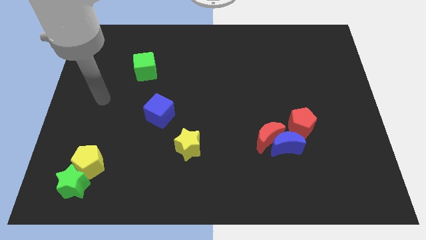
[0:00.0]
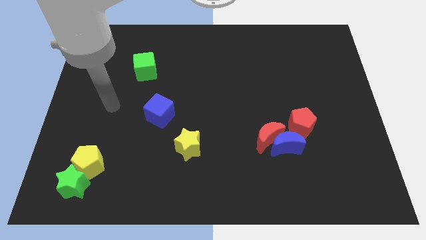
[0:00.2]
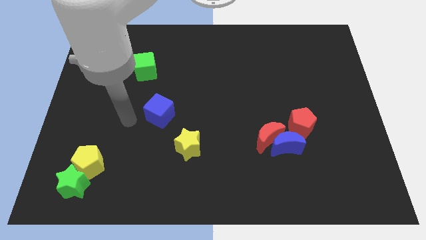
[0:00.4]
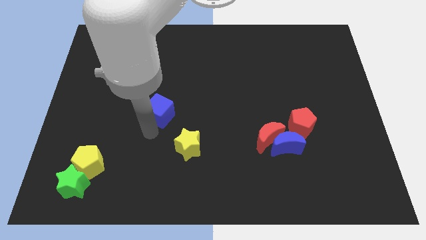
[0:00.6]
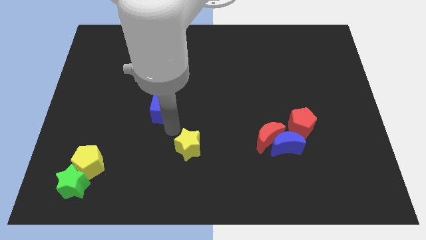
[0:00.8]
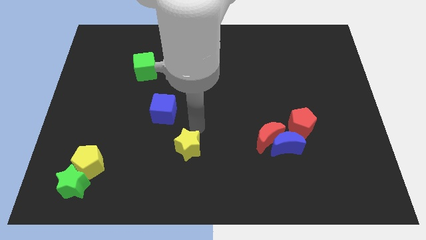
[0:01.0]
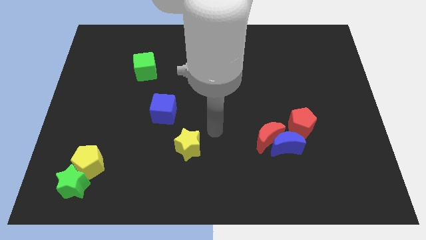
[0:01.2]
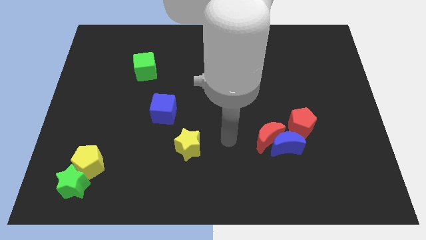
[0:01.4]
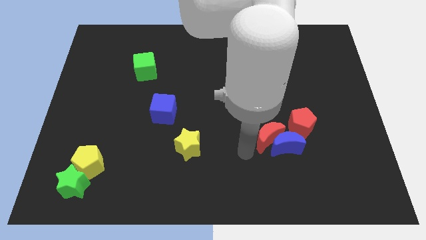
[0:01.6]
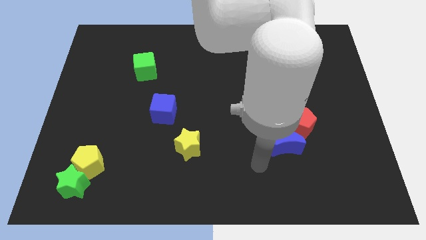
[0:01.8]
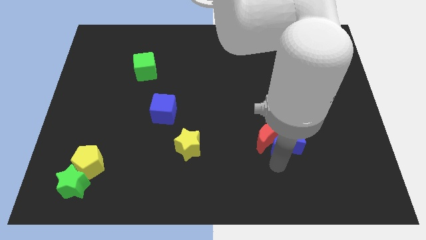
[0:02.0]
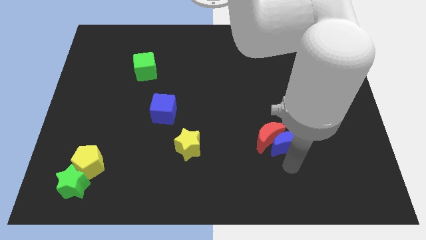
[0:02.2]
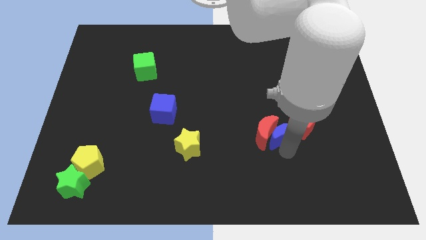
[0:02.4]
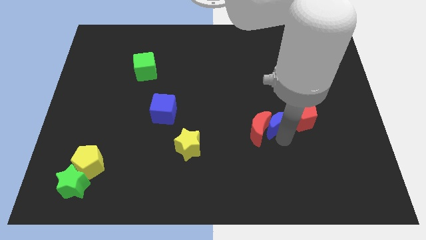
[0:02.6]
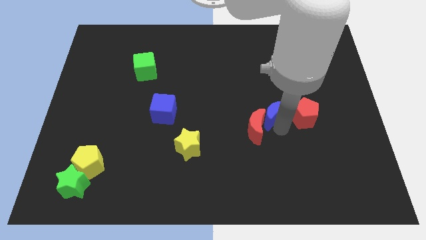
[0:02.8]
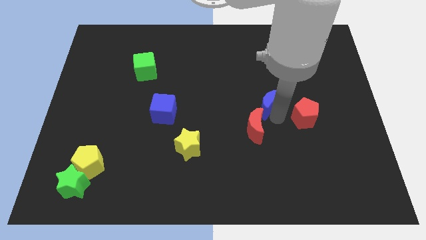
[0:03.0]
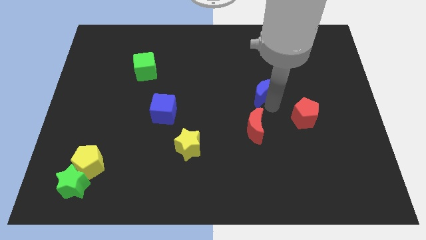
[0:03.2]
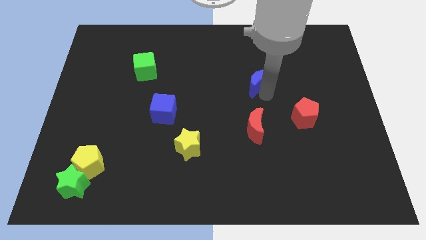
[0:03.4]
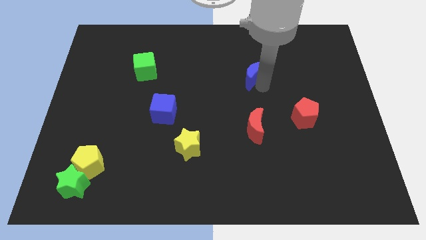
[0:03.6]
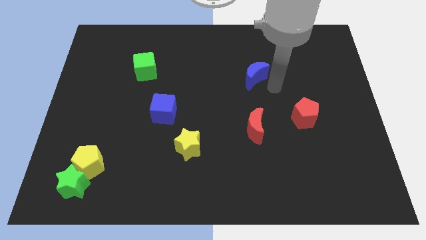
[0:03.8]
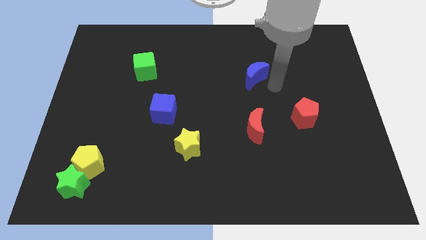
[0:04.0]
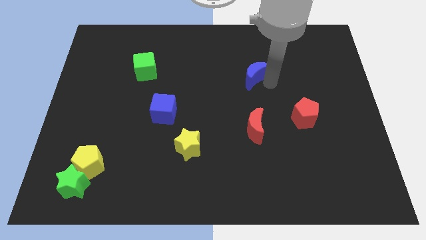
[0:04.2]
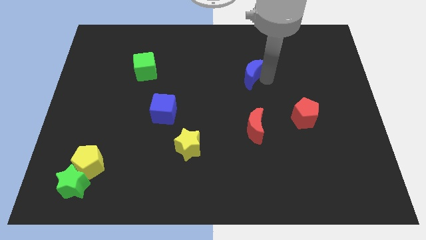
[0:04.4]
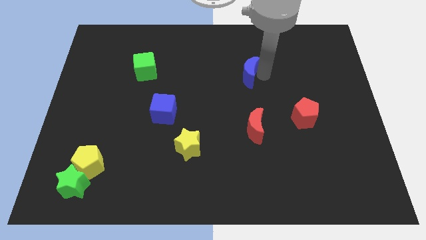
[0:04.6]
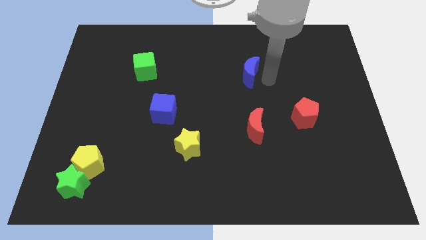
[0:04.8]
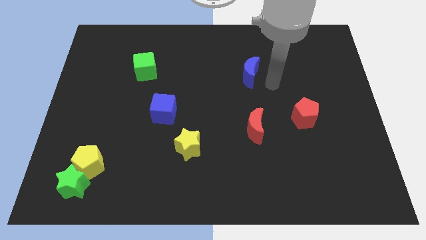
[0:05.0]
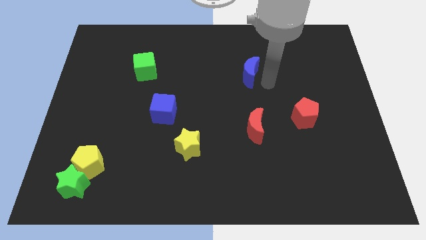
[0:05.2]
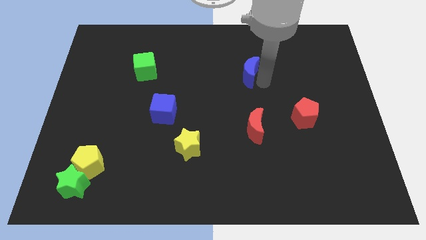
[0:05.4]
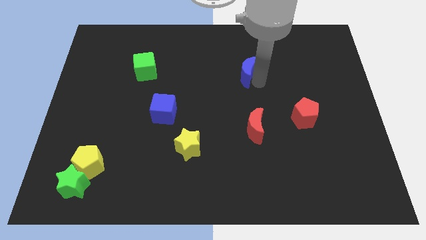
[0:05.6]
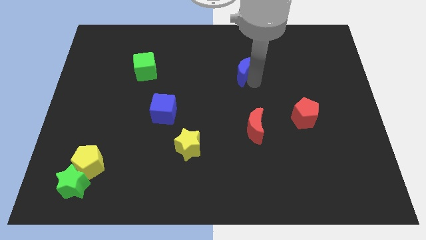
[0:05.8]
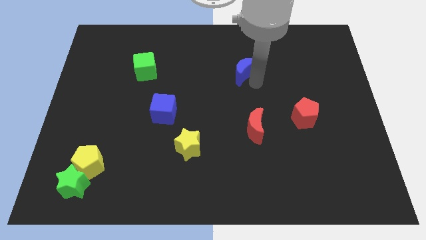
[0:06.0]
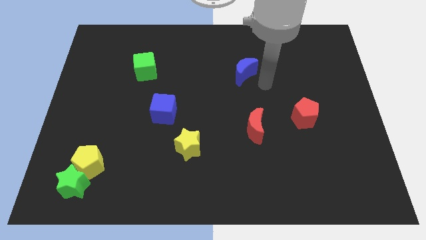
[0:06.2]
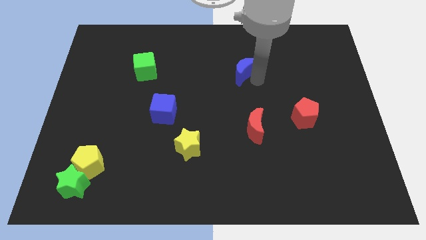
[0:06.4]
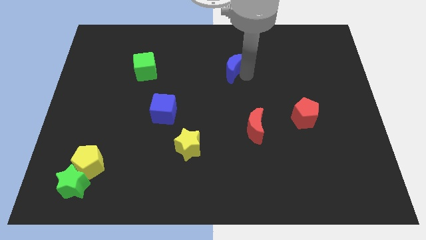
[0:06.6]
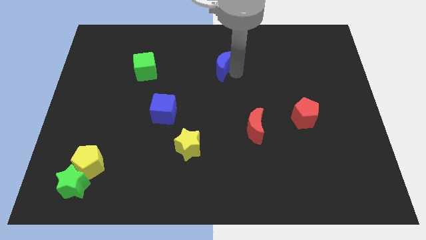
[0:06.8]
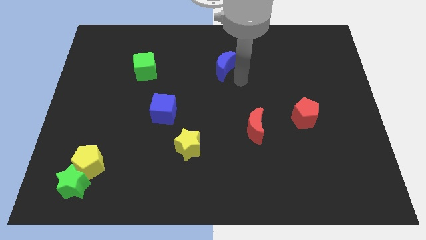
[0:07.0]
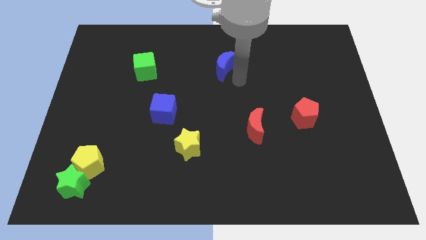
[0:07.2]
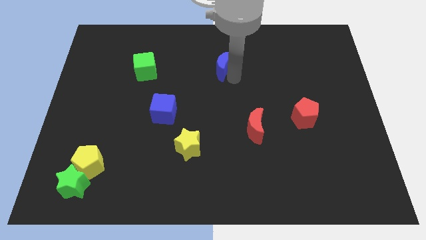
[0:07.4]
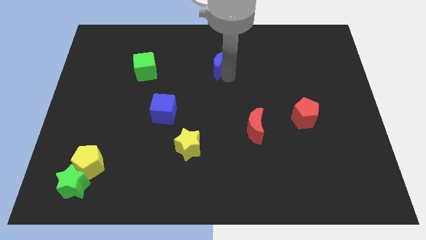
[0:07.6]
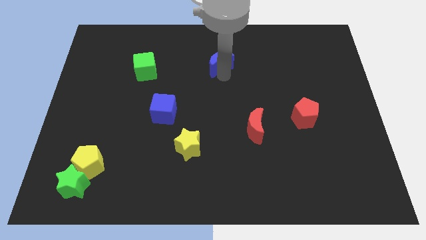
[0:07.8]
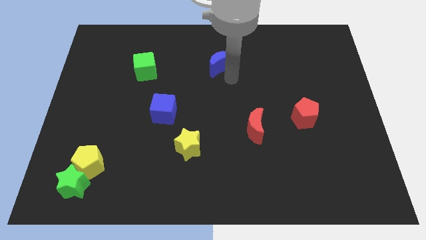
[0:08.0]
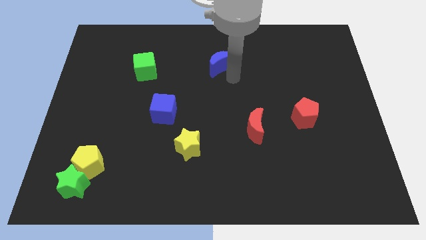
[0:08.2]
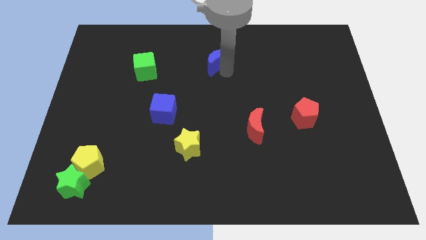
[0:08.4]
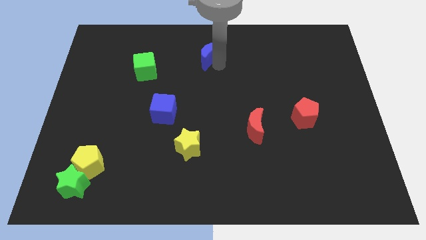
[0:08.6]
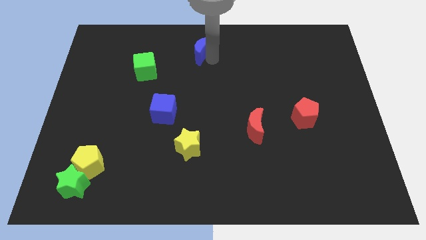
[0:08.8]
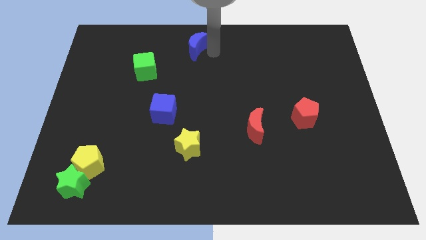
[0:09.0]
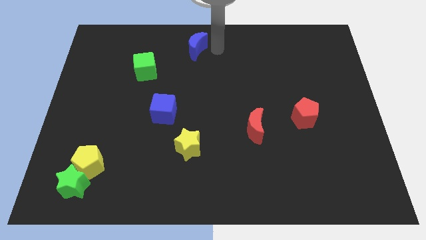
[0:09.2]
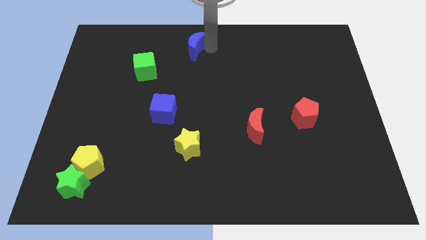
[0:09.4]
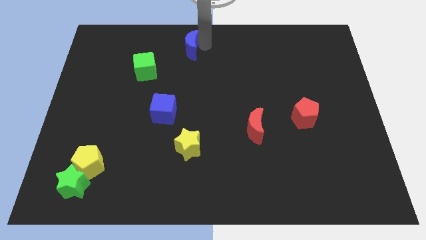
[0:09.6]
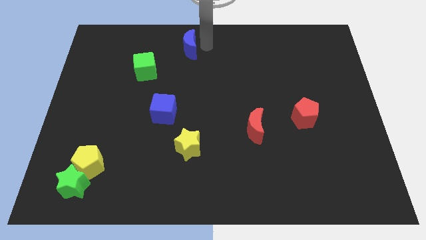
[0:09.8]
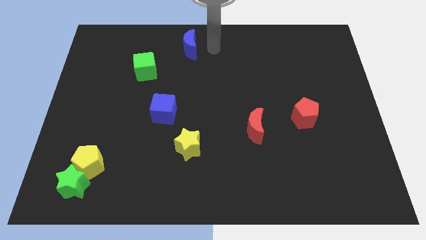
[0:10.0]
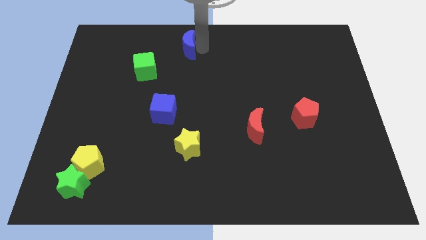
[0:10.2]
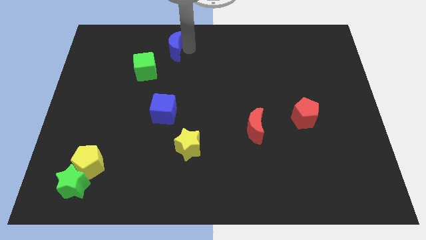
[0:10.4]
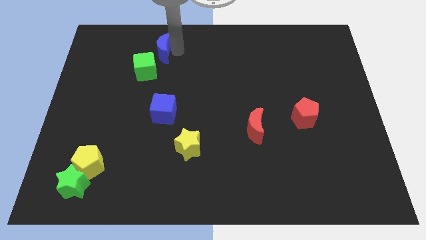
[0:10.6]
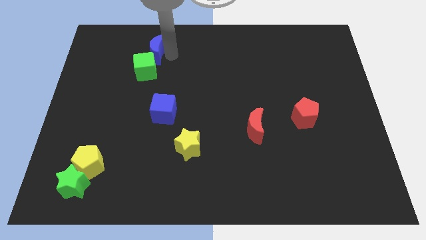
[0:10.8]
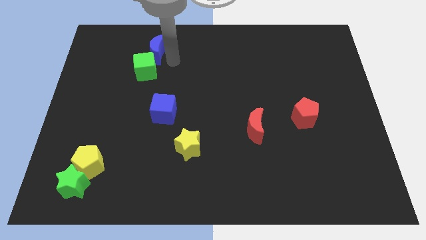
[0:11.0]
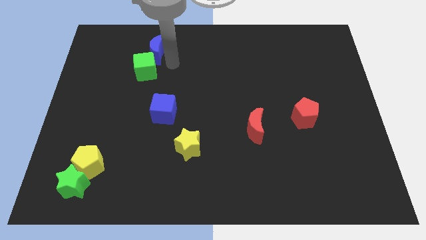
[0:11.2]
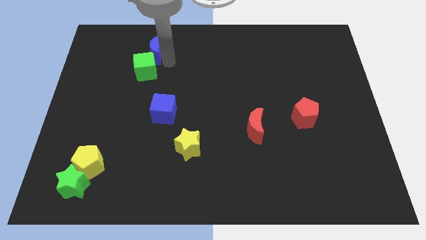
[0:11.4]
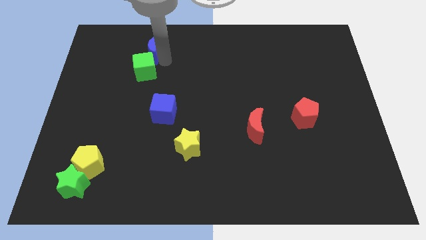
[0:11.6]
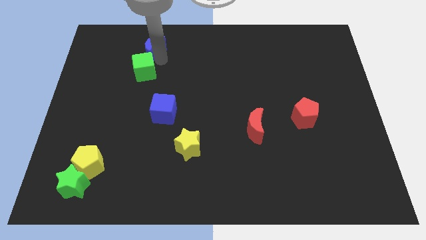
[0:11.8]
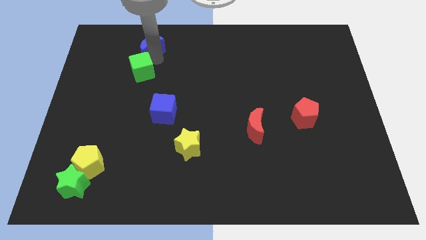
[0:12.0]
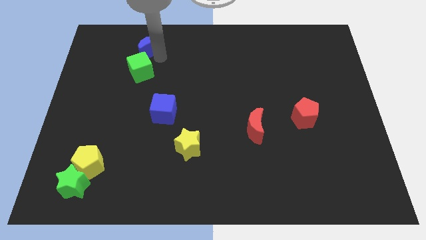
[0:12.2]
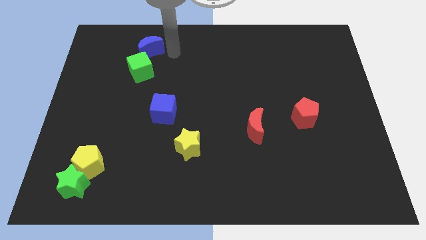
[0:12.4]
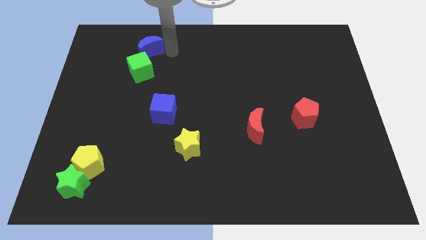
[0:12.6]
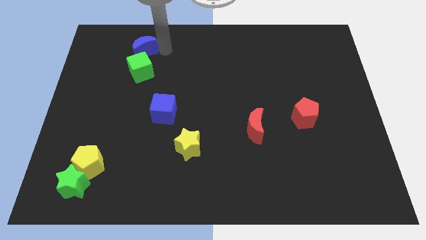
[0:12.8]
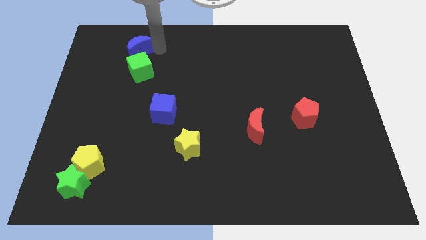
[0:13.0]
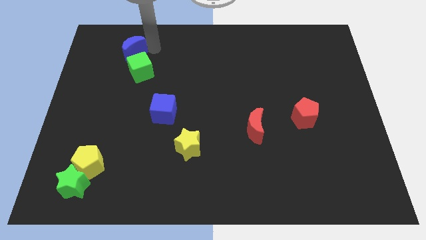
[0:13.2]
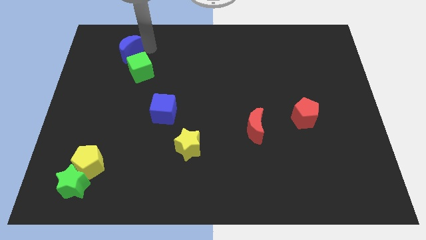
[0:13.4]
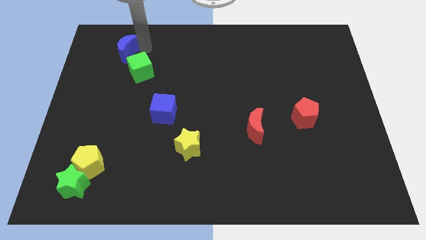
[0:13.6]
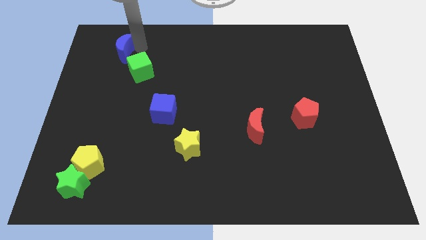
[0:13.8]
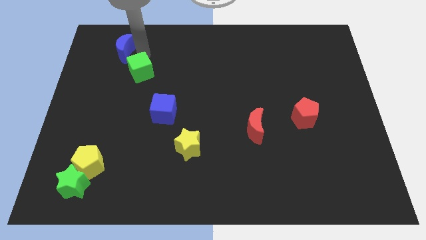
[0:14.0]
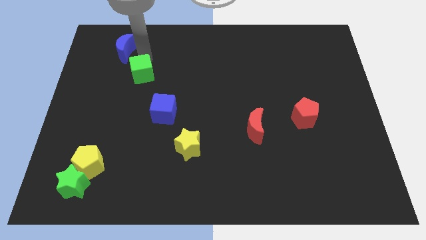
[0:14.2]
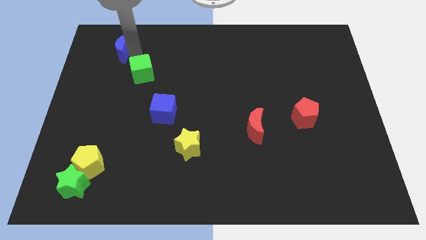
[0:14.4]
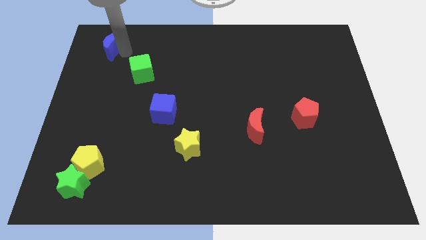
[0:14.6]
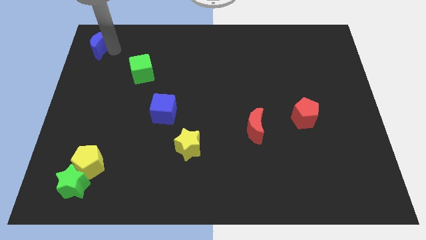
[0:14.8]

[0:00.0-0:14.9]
push the blue moon to the top left corner

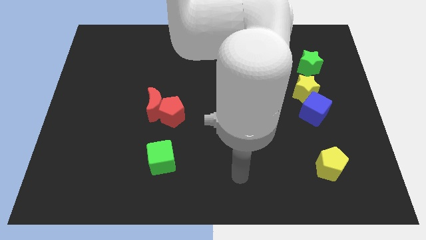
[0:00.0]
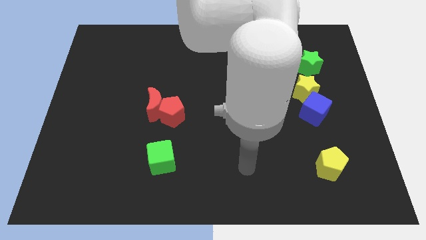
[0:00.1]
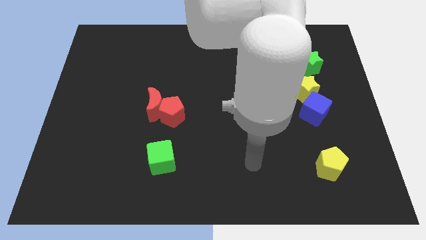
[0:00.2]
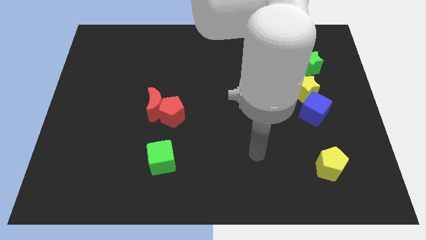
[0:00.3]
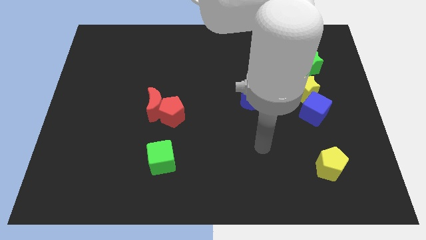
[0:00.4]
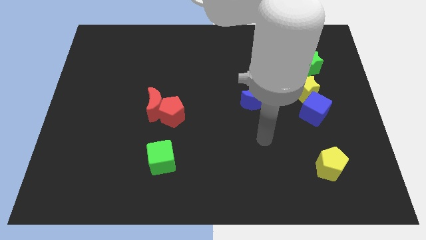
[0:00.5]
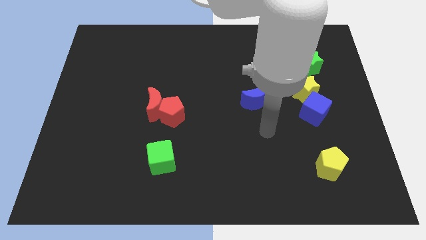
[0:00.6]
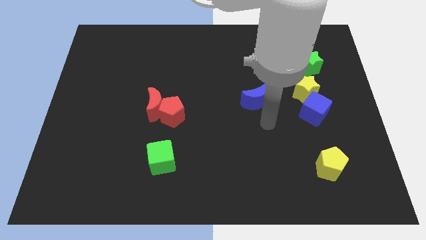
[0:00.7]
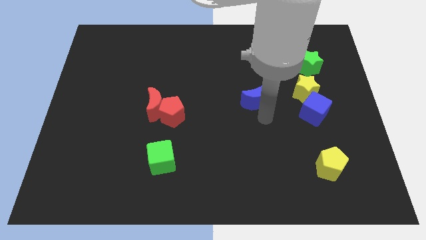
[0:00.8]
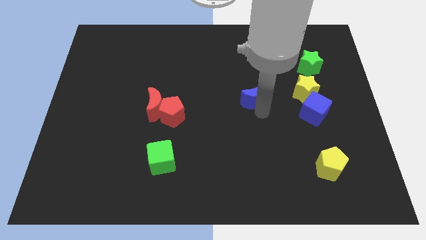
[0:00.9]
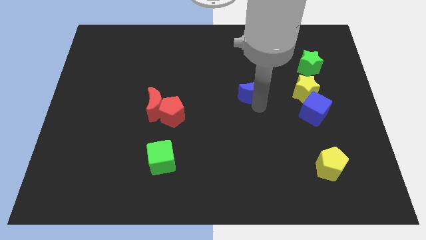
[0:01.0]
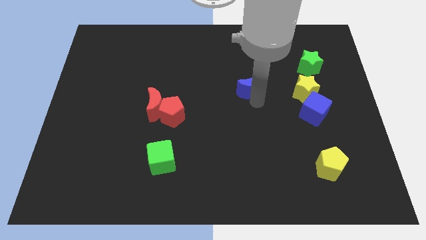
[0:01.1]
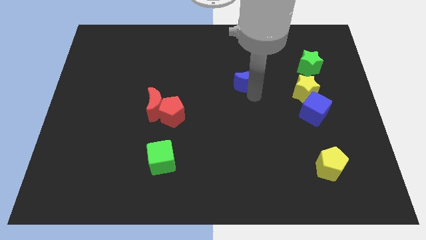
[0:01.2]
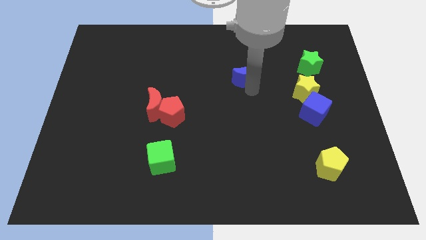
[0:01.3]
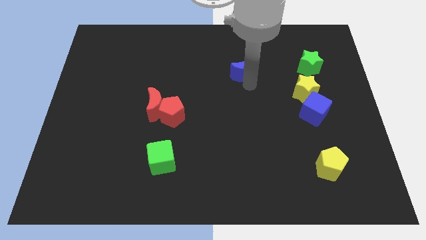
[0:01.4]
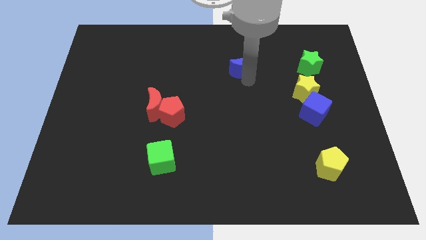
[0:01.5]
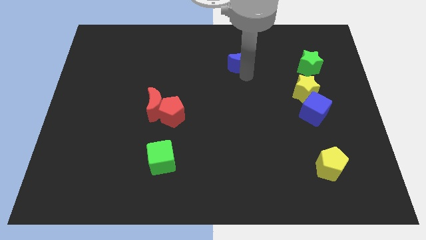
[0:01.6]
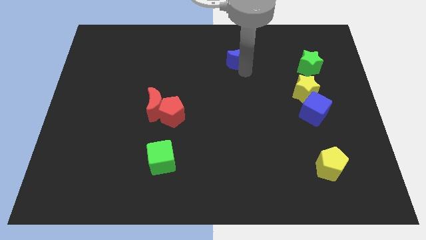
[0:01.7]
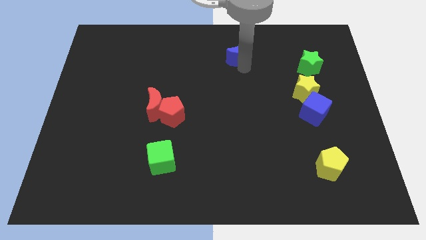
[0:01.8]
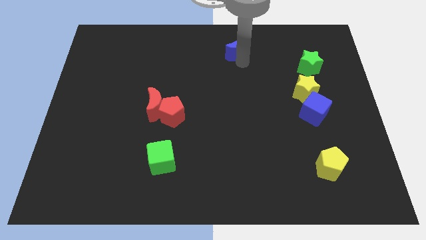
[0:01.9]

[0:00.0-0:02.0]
put the blue moon to the top
